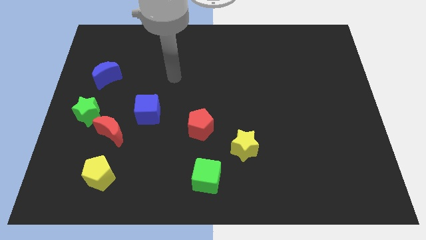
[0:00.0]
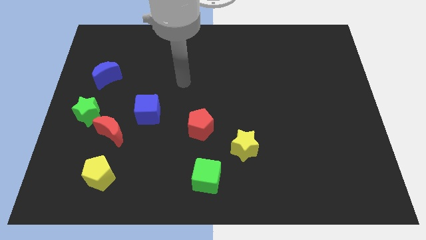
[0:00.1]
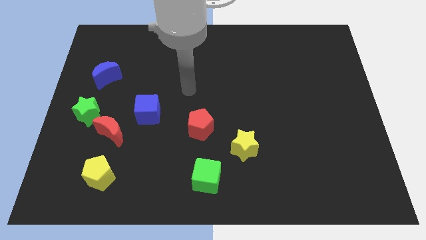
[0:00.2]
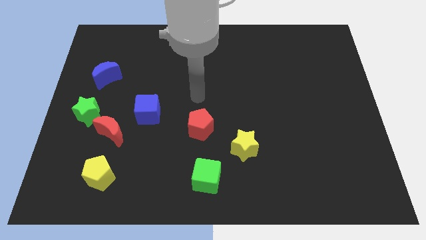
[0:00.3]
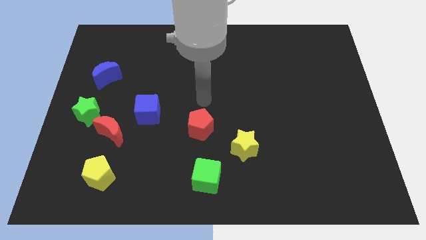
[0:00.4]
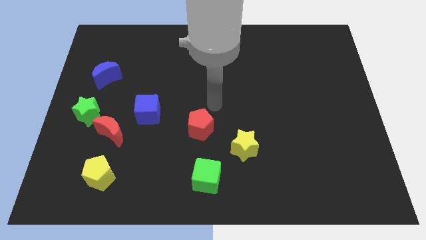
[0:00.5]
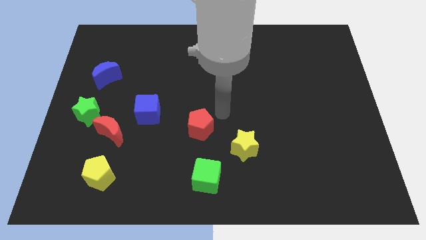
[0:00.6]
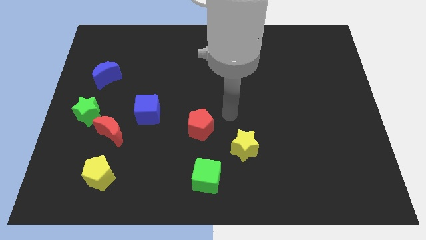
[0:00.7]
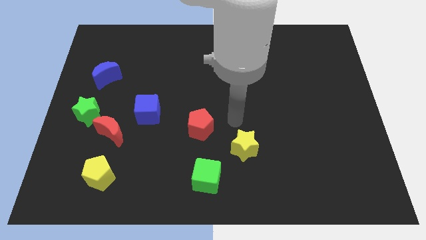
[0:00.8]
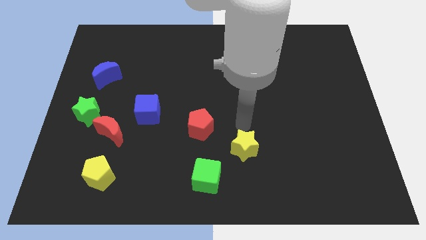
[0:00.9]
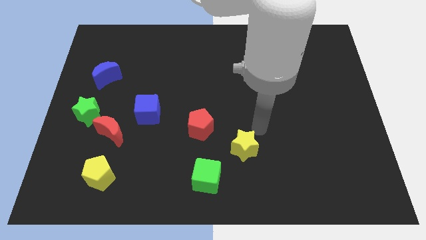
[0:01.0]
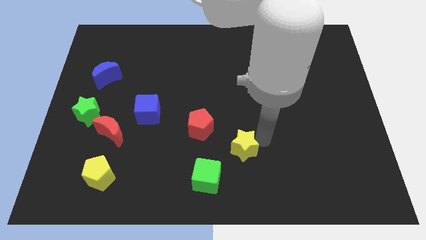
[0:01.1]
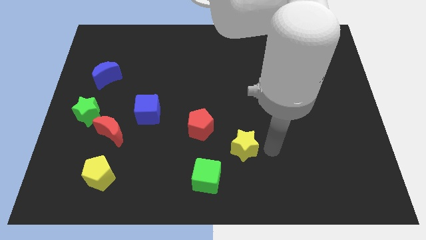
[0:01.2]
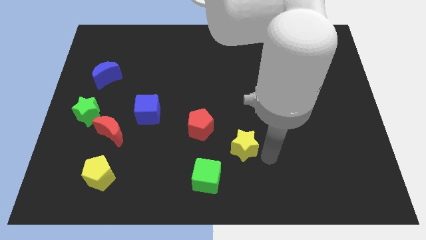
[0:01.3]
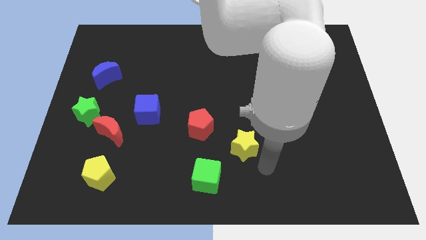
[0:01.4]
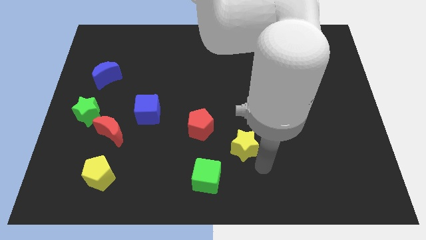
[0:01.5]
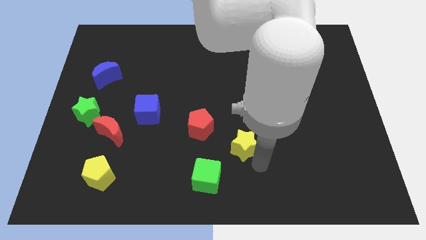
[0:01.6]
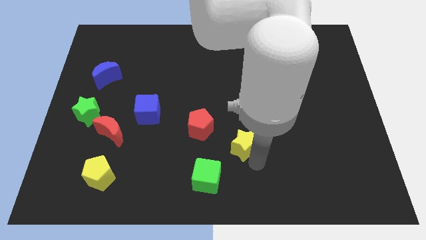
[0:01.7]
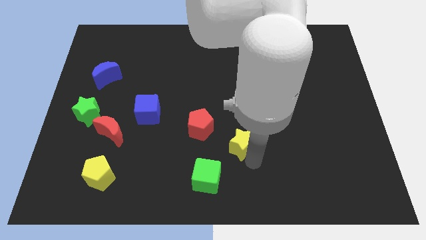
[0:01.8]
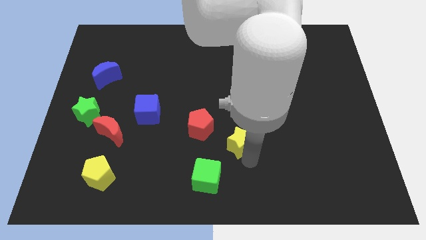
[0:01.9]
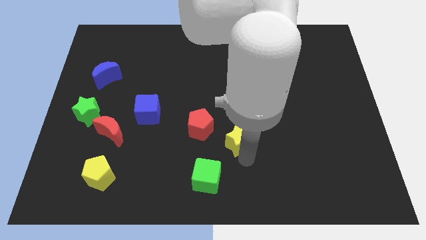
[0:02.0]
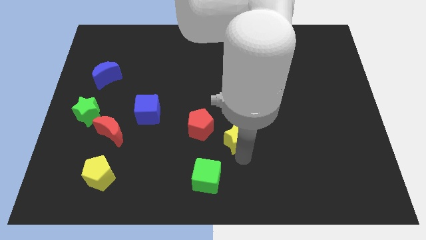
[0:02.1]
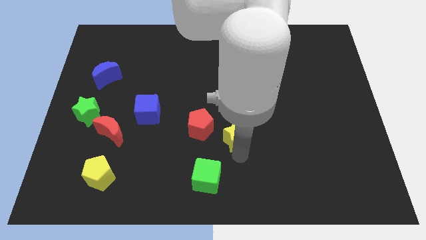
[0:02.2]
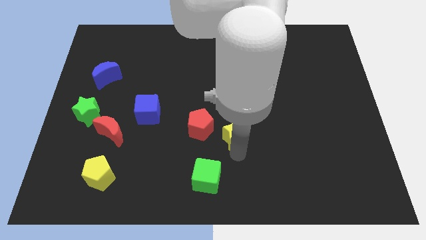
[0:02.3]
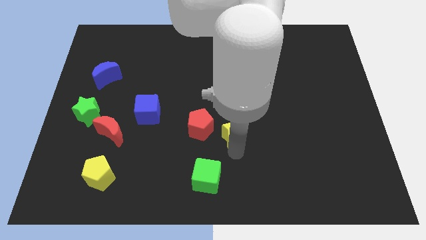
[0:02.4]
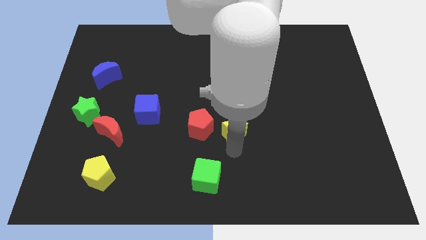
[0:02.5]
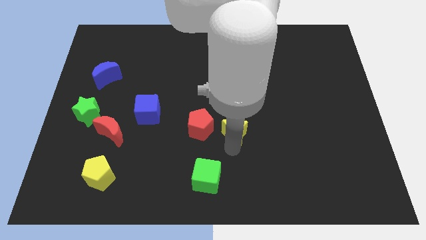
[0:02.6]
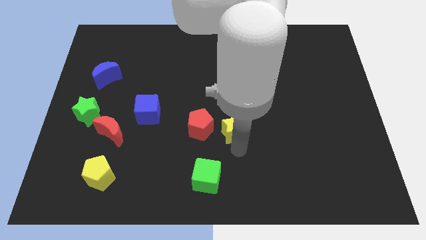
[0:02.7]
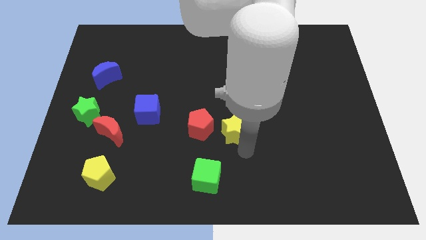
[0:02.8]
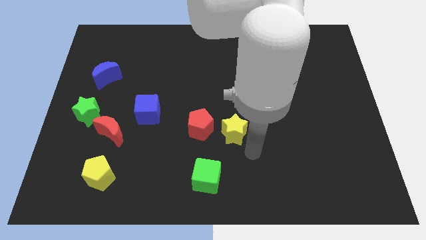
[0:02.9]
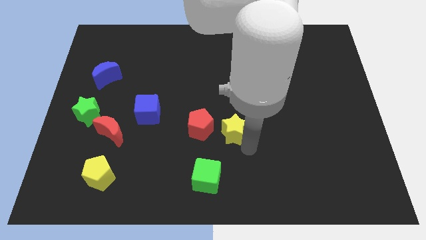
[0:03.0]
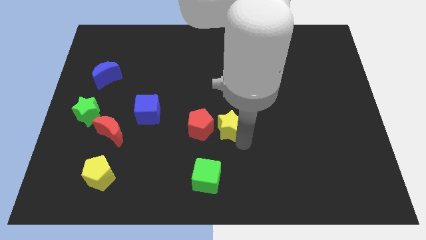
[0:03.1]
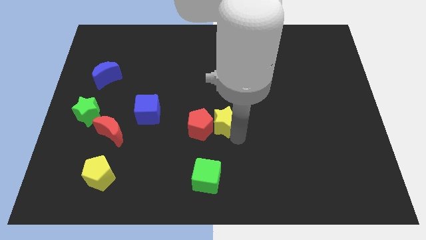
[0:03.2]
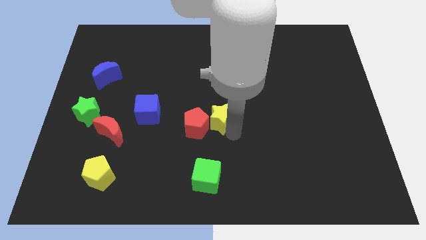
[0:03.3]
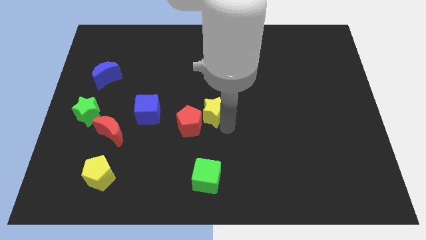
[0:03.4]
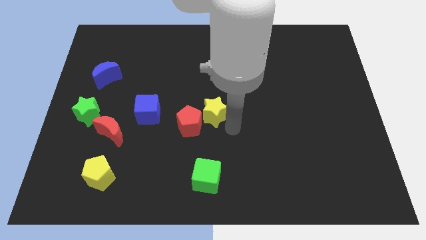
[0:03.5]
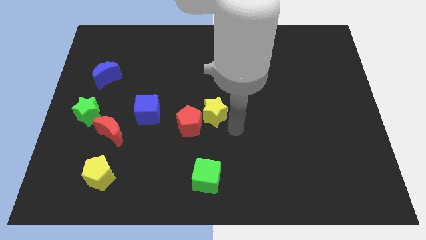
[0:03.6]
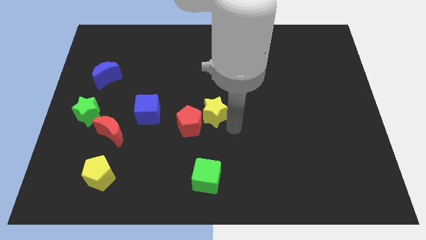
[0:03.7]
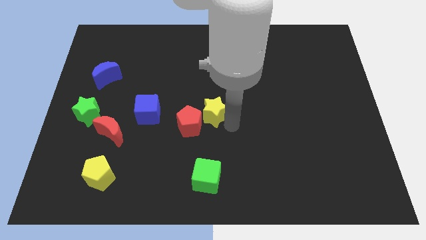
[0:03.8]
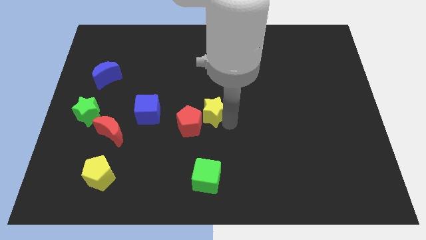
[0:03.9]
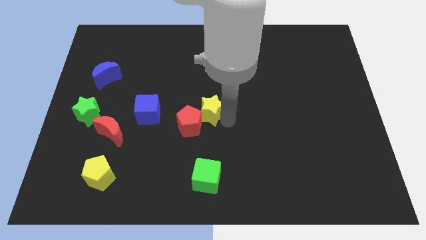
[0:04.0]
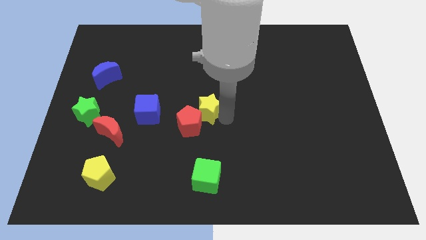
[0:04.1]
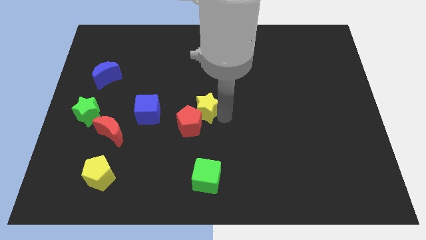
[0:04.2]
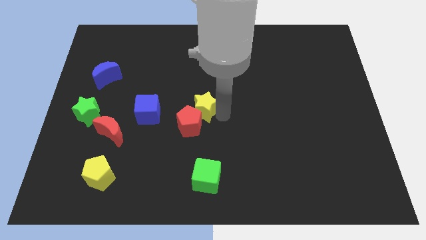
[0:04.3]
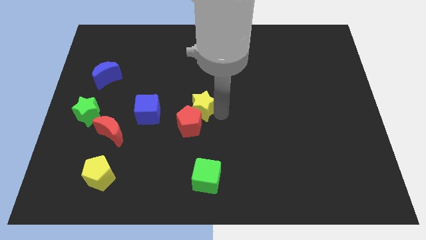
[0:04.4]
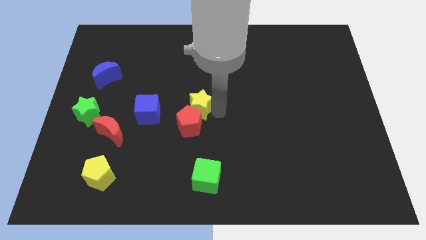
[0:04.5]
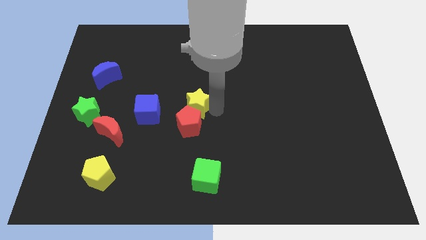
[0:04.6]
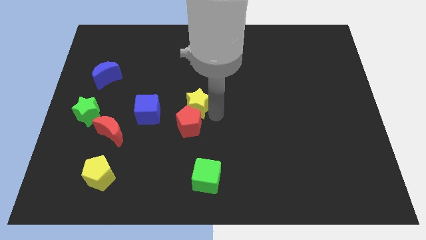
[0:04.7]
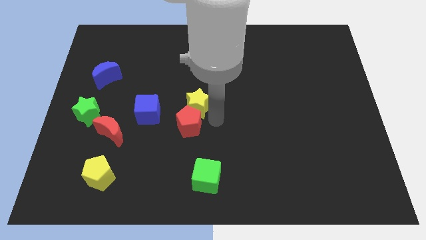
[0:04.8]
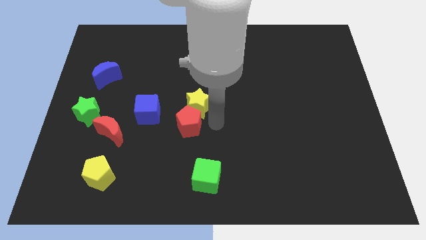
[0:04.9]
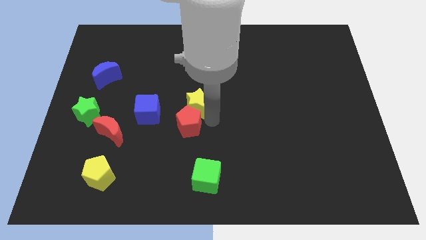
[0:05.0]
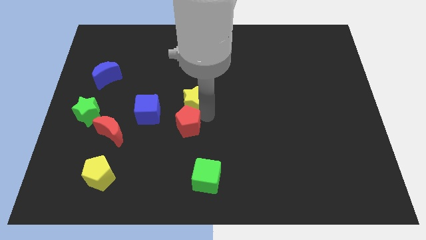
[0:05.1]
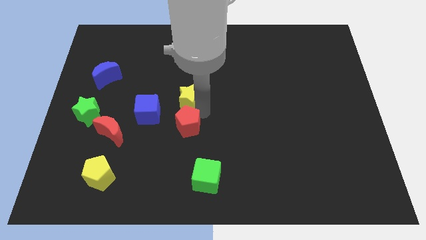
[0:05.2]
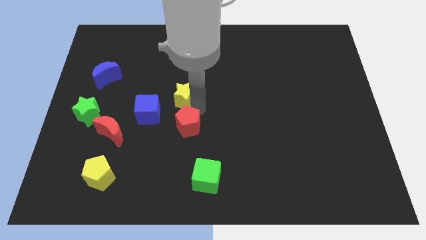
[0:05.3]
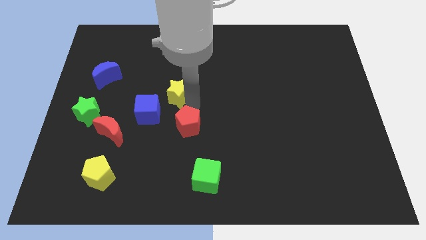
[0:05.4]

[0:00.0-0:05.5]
move the yellow star diagonally upwards and to the left

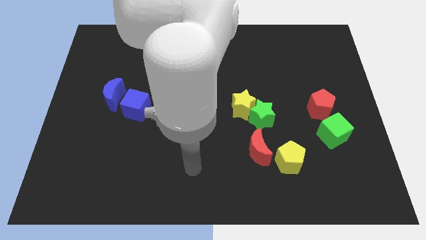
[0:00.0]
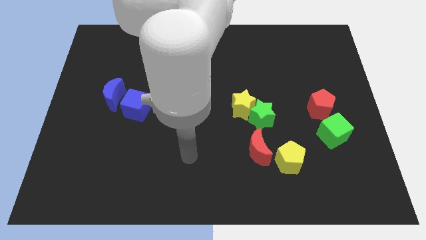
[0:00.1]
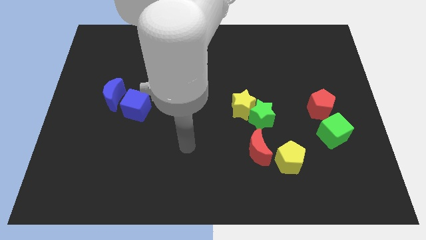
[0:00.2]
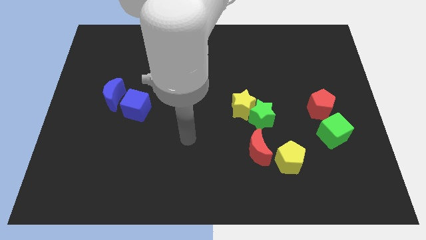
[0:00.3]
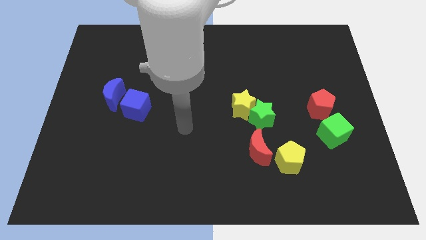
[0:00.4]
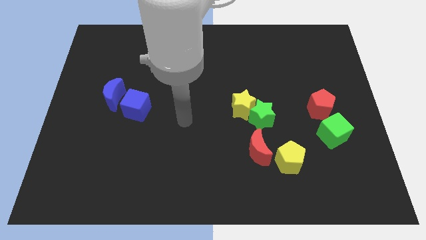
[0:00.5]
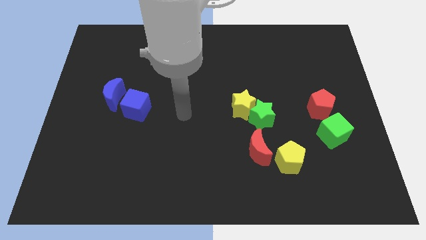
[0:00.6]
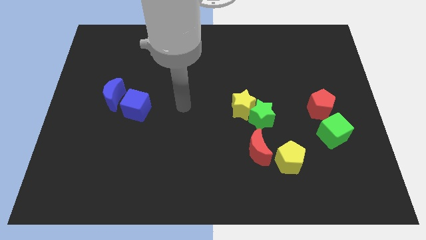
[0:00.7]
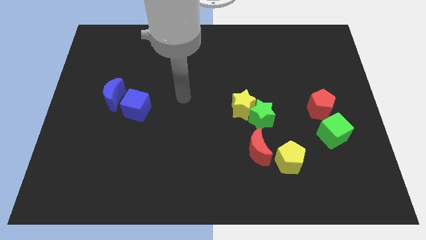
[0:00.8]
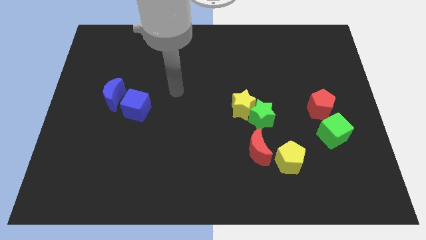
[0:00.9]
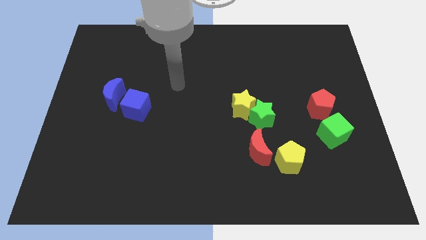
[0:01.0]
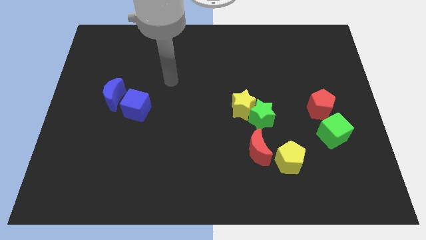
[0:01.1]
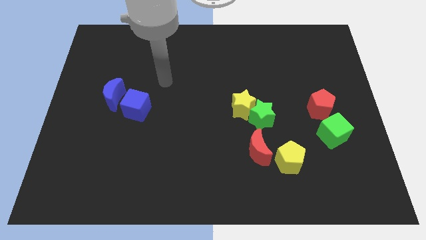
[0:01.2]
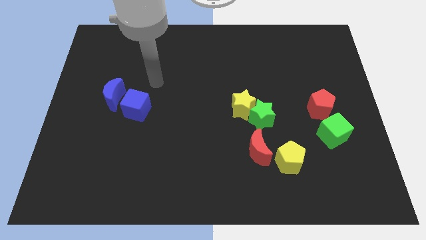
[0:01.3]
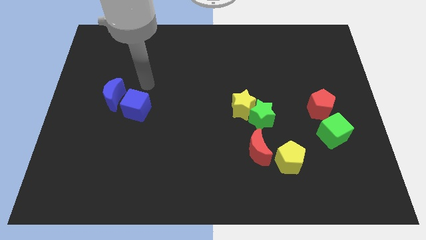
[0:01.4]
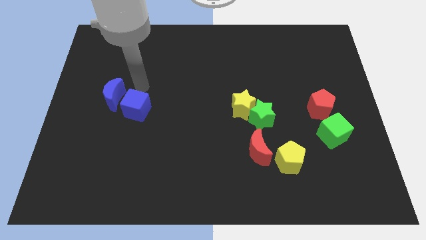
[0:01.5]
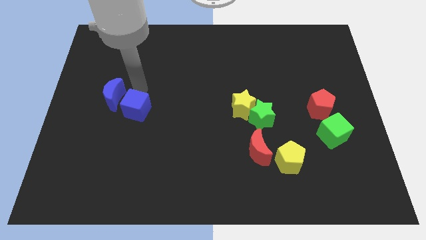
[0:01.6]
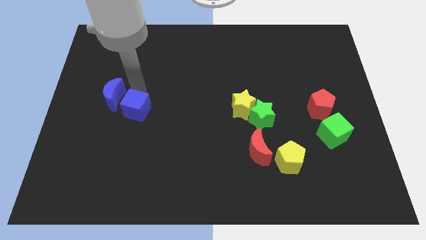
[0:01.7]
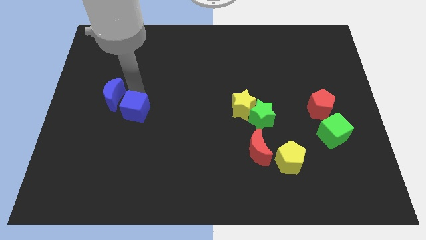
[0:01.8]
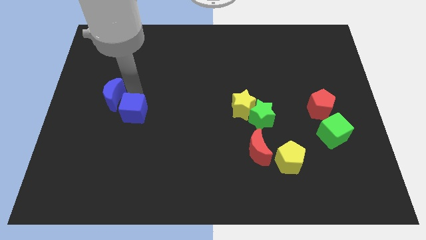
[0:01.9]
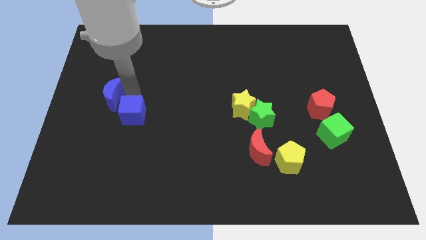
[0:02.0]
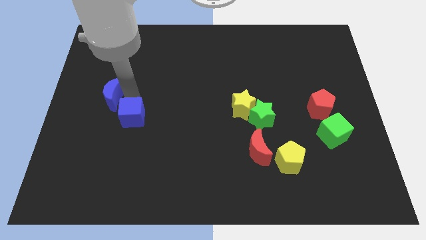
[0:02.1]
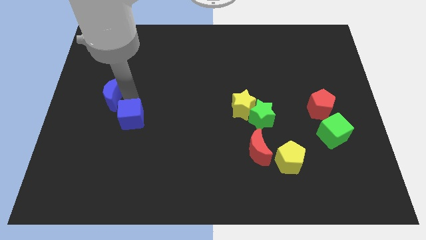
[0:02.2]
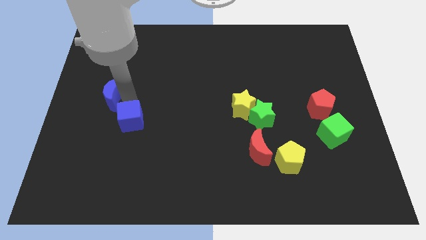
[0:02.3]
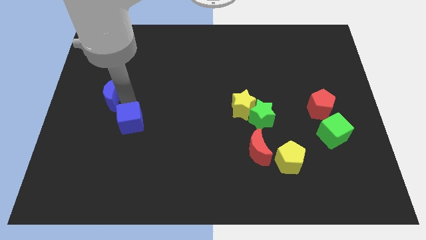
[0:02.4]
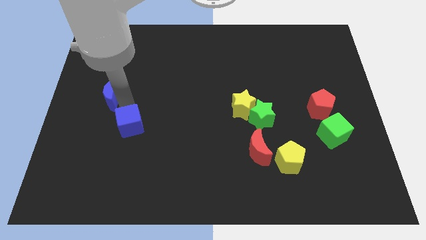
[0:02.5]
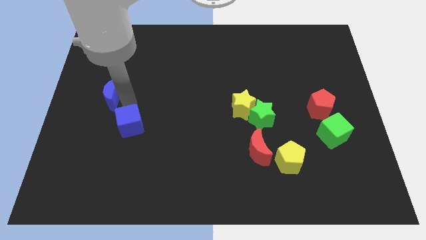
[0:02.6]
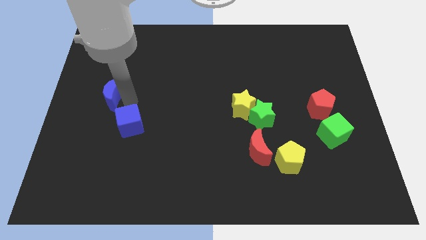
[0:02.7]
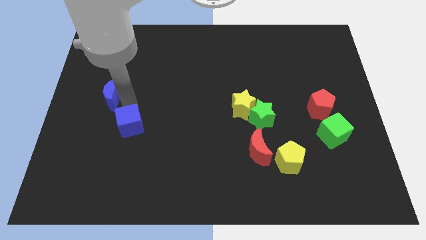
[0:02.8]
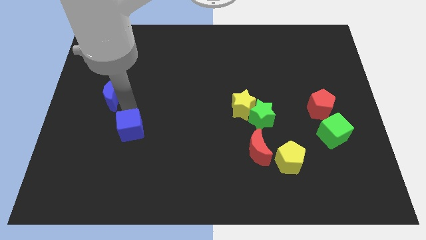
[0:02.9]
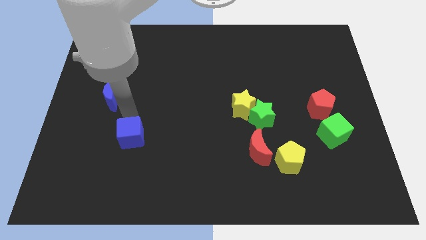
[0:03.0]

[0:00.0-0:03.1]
slide the blue cube somewhat down
